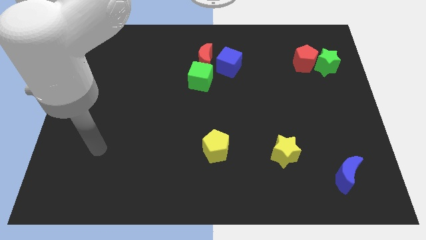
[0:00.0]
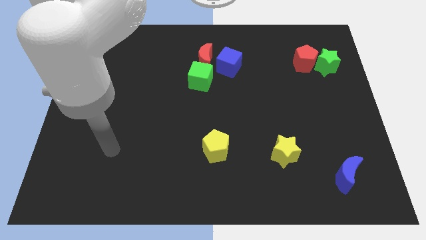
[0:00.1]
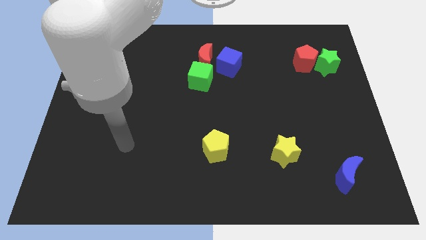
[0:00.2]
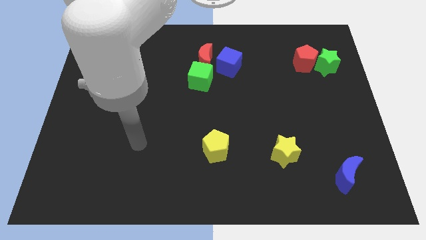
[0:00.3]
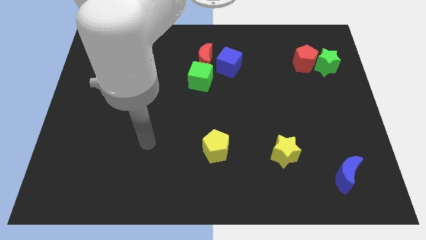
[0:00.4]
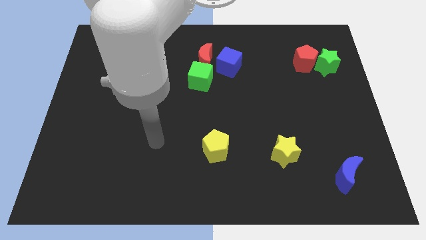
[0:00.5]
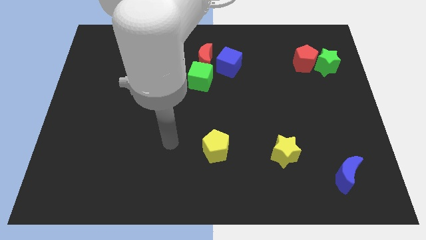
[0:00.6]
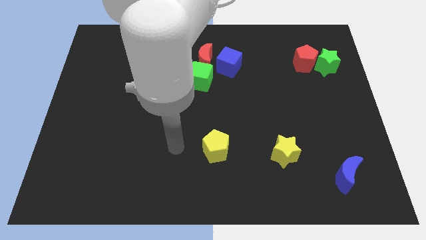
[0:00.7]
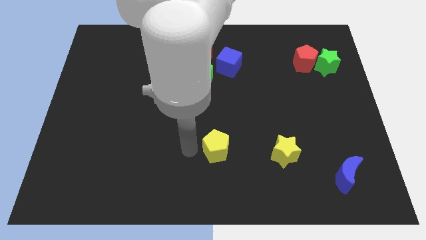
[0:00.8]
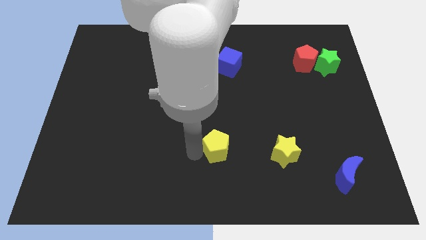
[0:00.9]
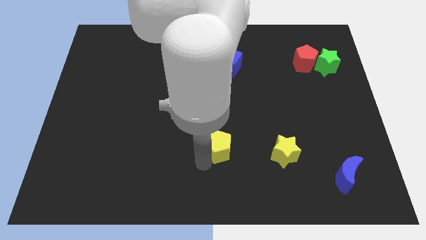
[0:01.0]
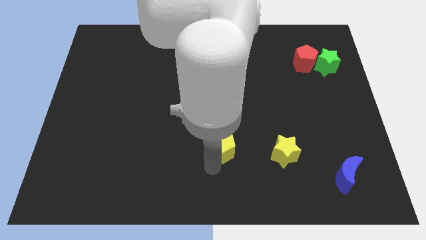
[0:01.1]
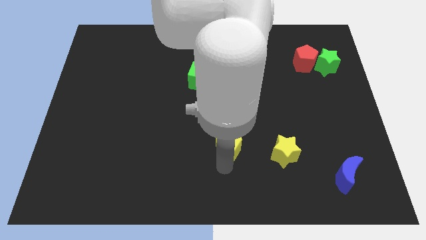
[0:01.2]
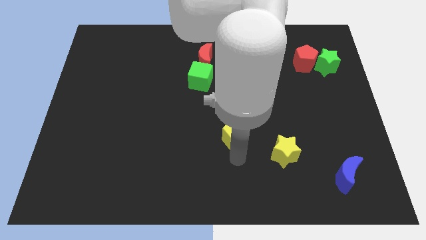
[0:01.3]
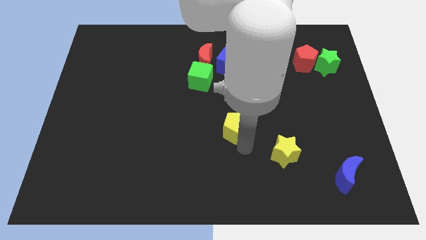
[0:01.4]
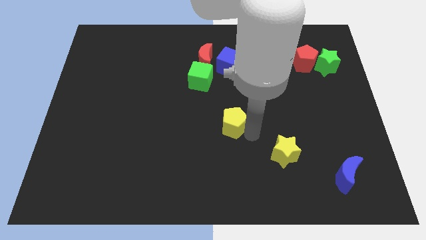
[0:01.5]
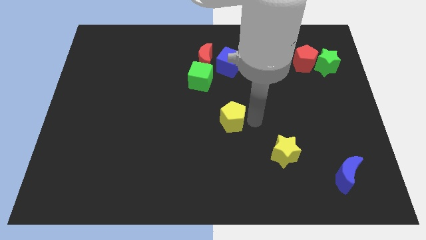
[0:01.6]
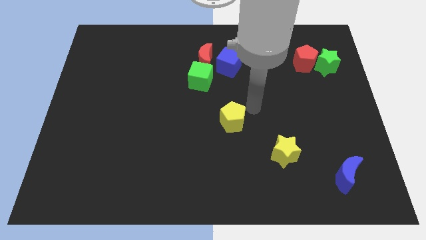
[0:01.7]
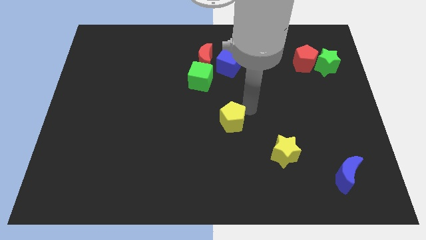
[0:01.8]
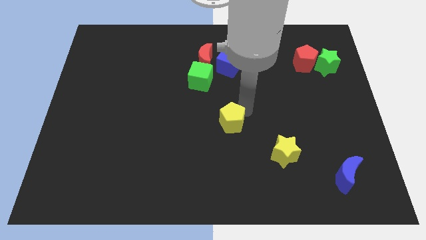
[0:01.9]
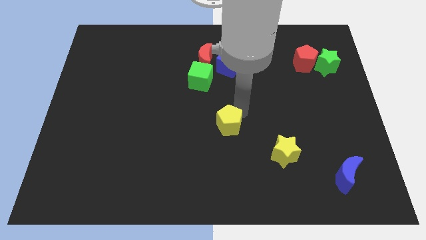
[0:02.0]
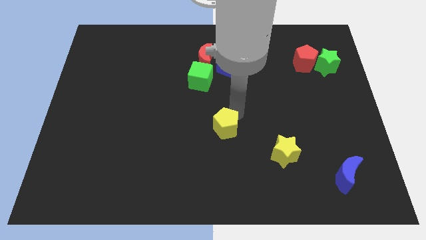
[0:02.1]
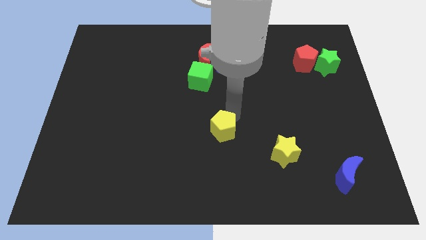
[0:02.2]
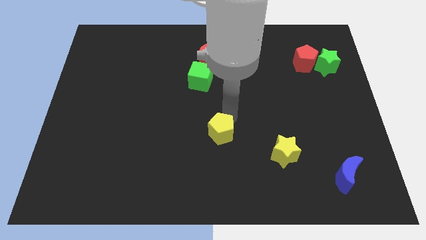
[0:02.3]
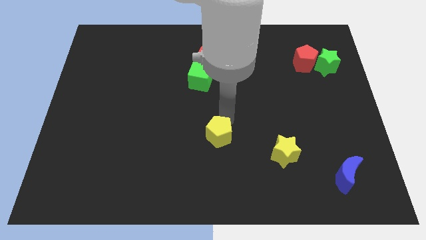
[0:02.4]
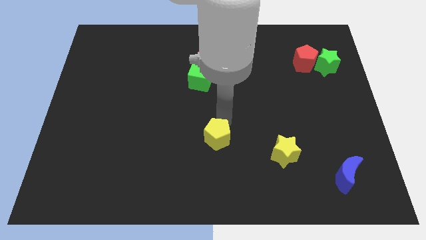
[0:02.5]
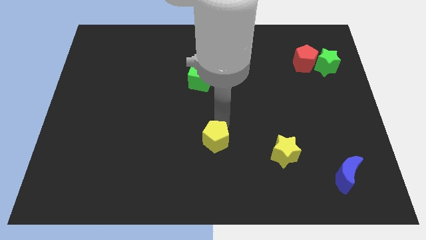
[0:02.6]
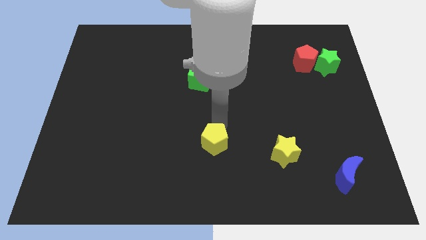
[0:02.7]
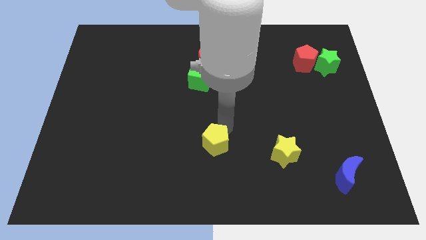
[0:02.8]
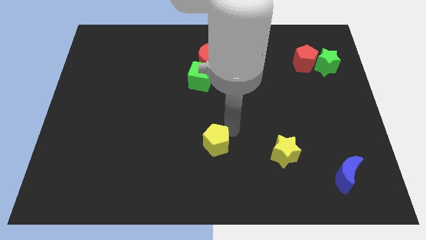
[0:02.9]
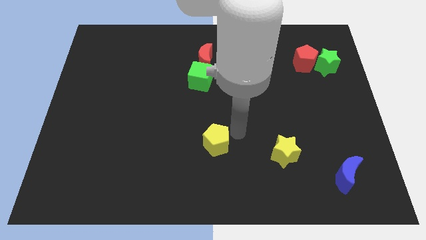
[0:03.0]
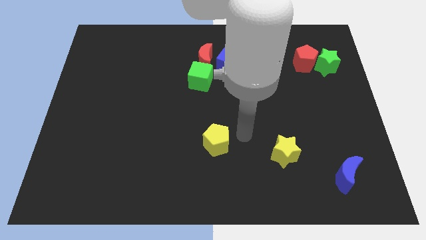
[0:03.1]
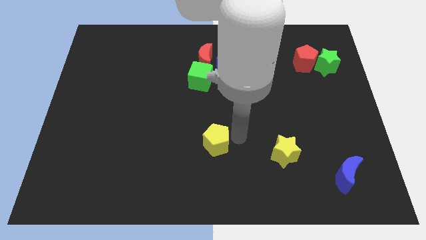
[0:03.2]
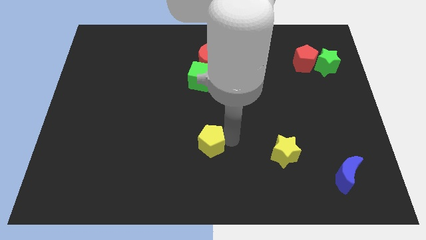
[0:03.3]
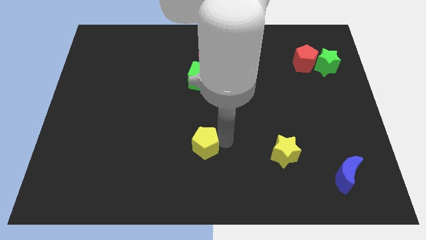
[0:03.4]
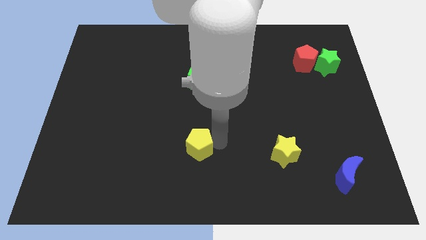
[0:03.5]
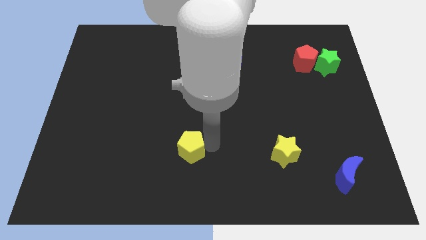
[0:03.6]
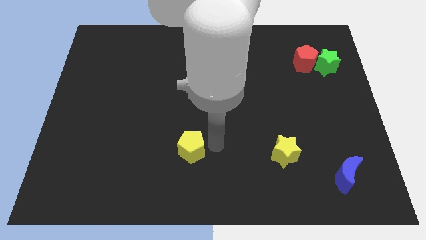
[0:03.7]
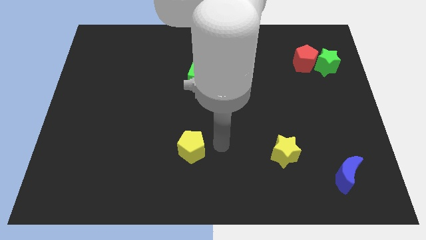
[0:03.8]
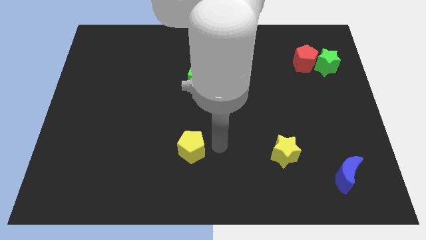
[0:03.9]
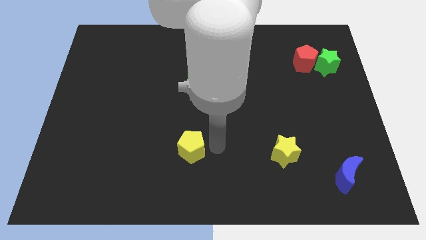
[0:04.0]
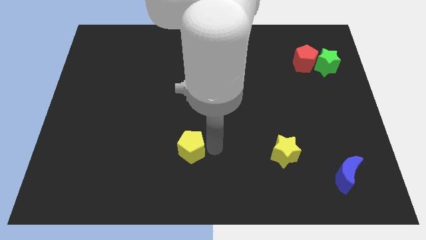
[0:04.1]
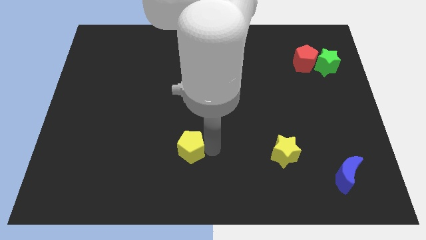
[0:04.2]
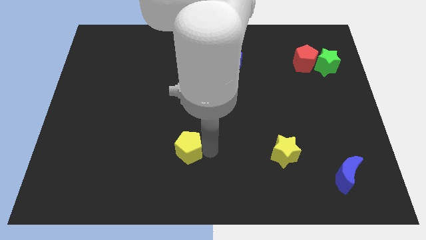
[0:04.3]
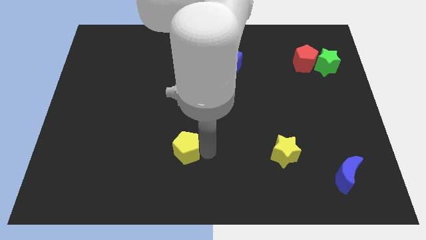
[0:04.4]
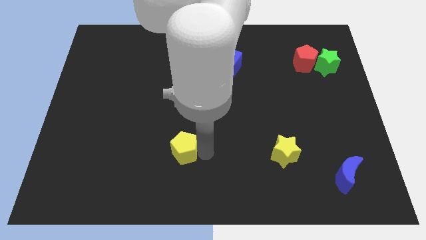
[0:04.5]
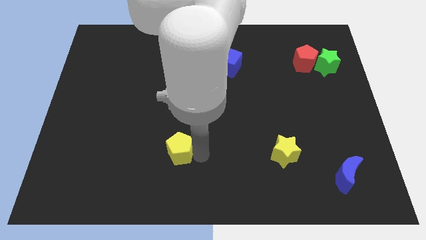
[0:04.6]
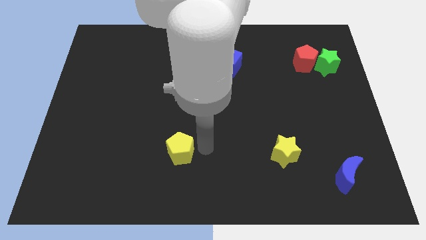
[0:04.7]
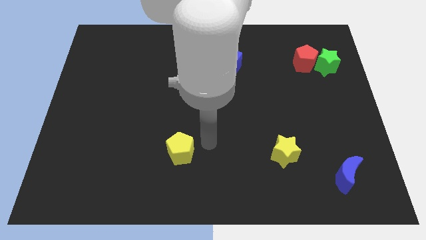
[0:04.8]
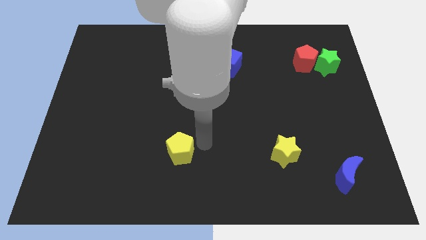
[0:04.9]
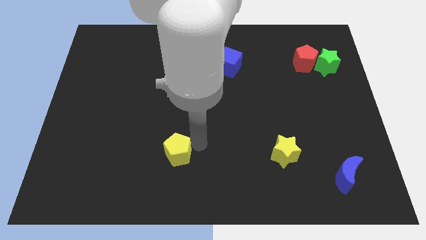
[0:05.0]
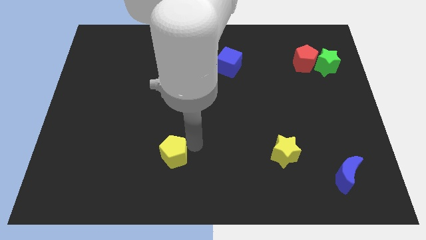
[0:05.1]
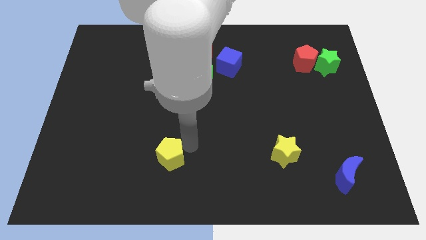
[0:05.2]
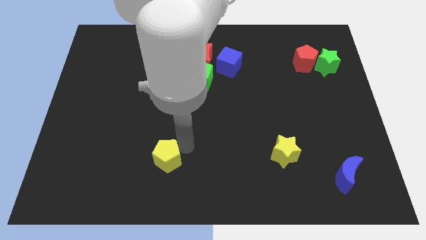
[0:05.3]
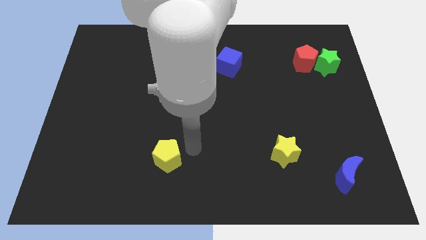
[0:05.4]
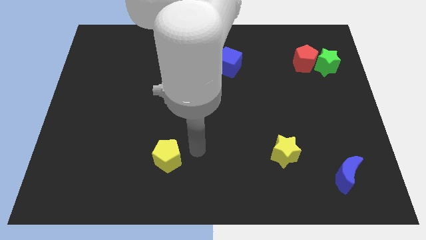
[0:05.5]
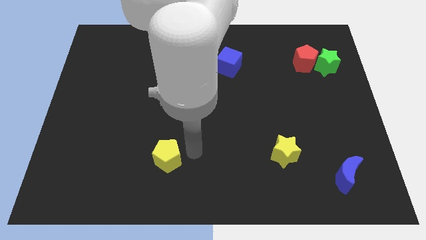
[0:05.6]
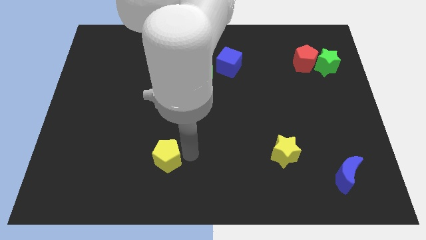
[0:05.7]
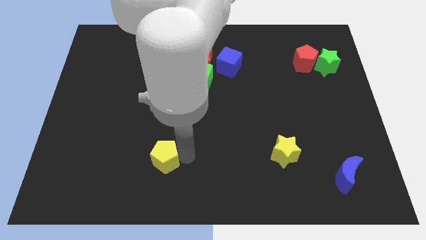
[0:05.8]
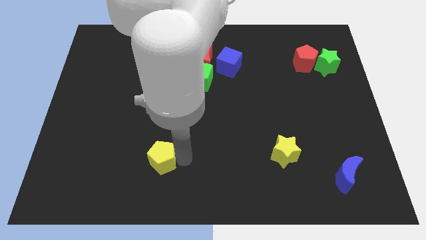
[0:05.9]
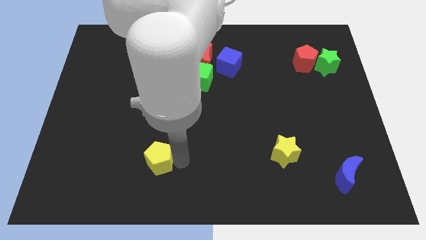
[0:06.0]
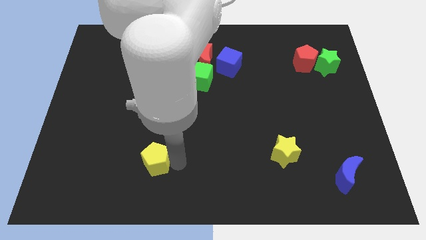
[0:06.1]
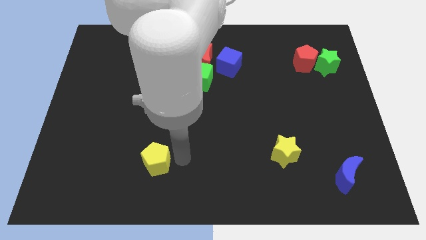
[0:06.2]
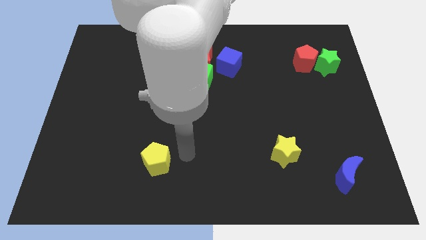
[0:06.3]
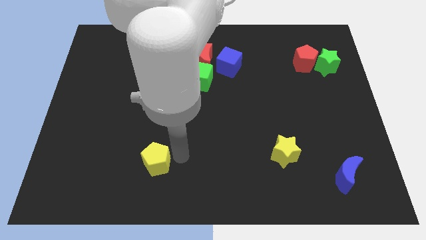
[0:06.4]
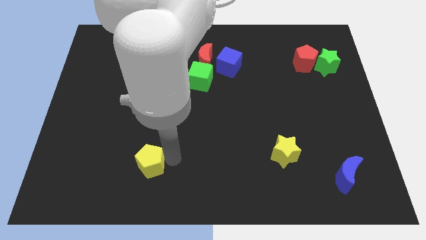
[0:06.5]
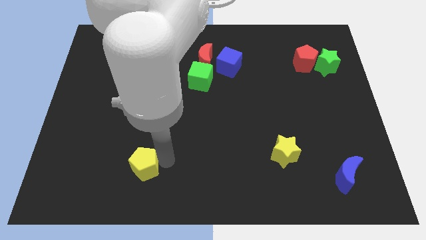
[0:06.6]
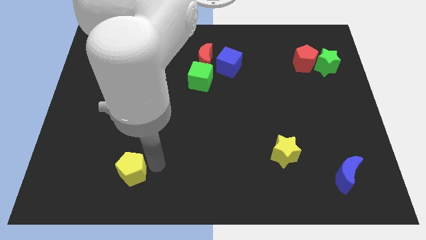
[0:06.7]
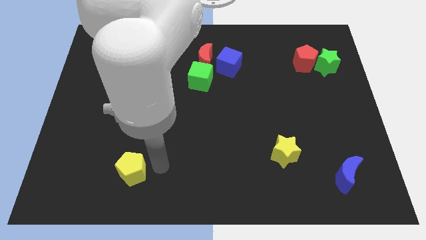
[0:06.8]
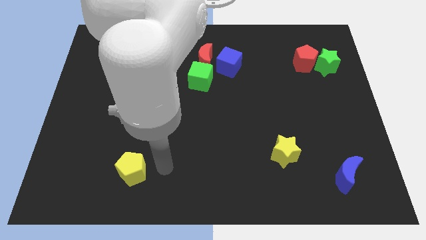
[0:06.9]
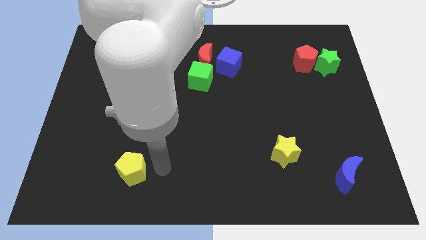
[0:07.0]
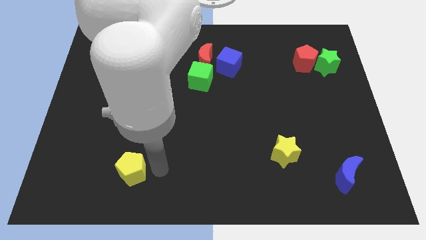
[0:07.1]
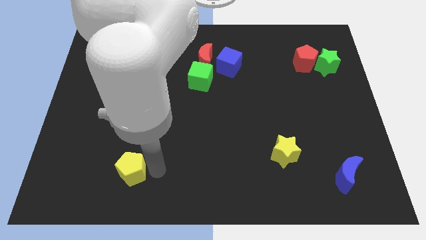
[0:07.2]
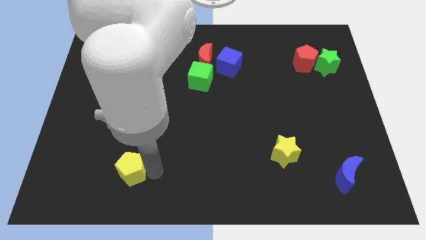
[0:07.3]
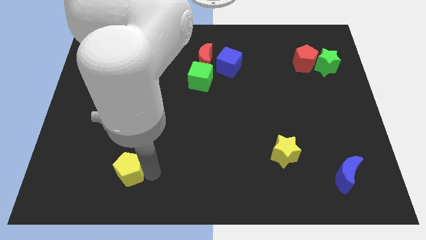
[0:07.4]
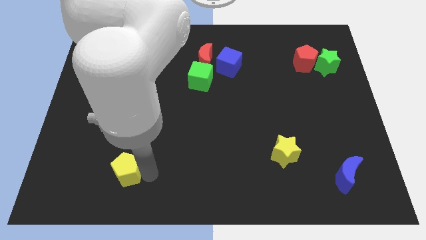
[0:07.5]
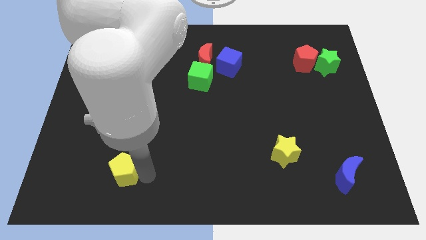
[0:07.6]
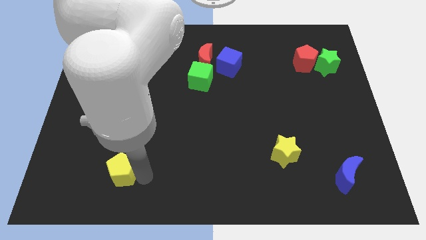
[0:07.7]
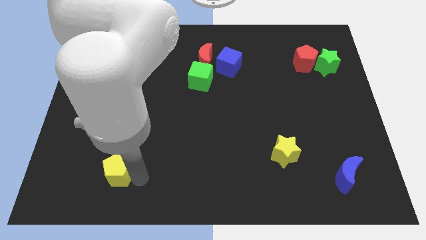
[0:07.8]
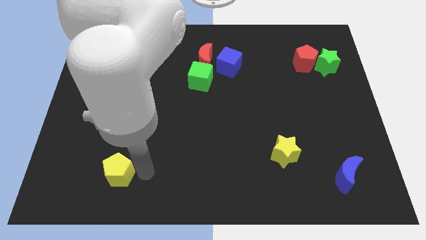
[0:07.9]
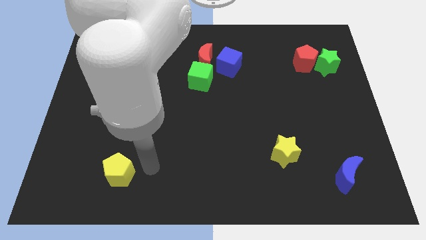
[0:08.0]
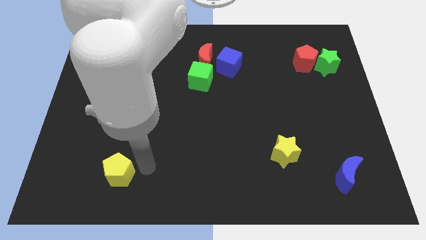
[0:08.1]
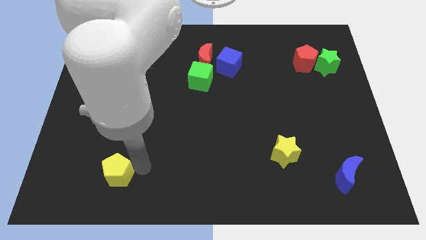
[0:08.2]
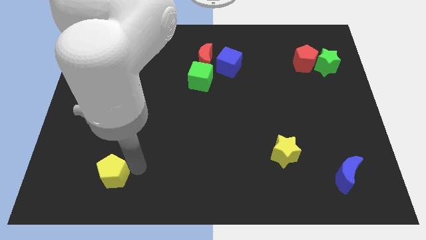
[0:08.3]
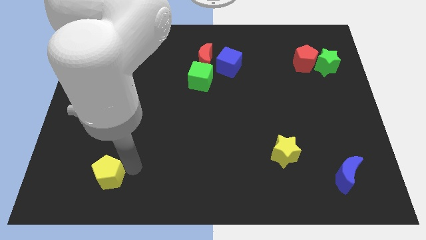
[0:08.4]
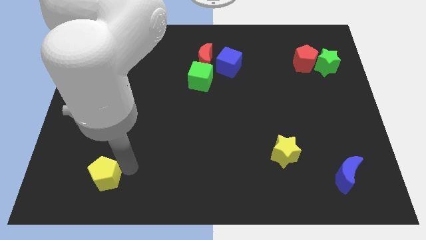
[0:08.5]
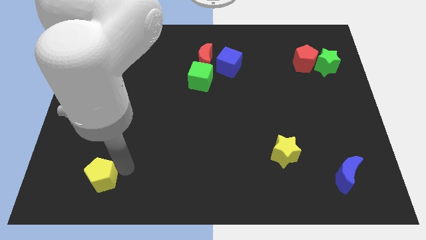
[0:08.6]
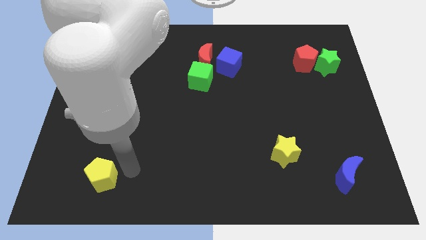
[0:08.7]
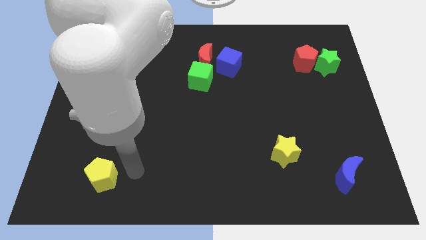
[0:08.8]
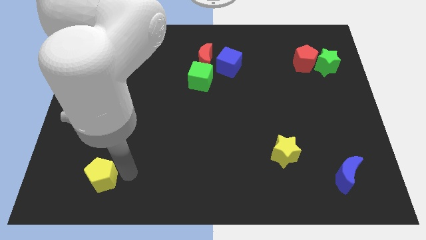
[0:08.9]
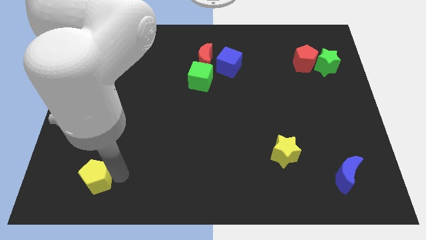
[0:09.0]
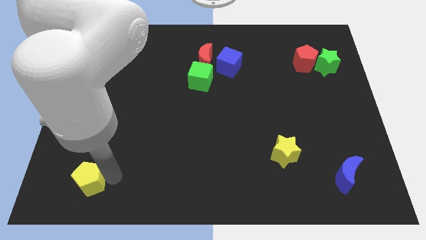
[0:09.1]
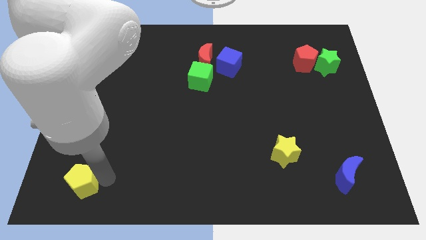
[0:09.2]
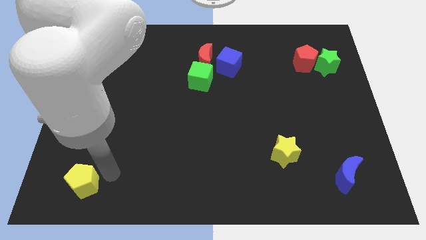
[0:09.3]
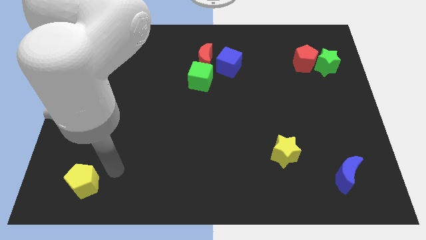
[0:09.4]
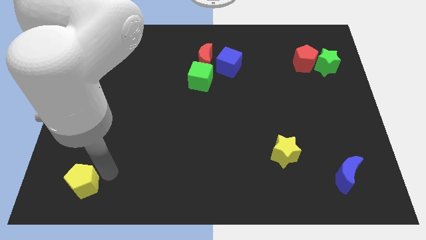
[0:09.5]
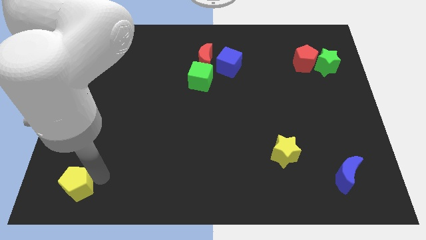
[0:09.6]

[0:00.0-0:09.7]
put the yellow pentagon to the bottom left
